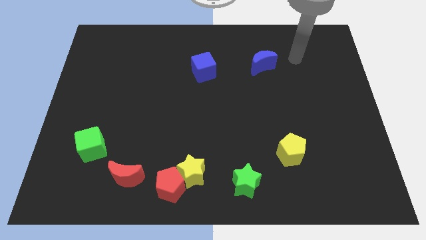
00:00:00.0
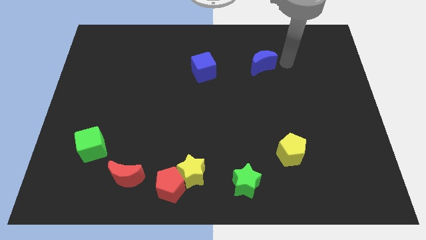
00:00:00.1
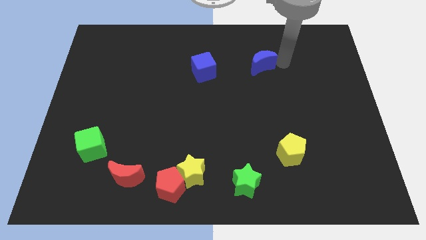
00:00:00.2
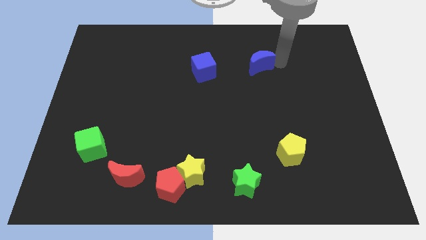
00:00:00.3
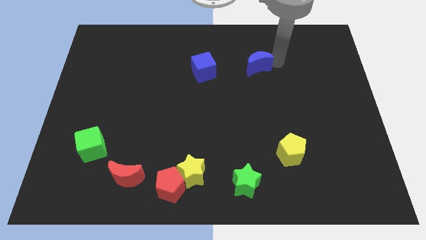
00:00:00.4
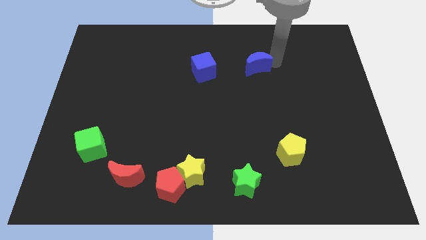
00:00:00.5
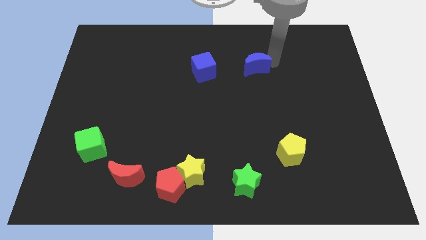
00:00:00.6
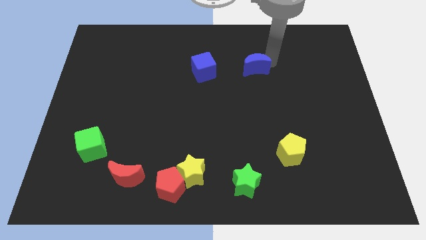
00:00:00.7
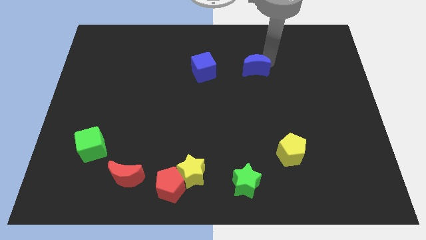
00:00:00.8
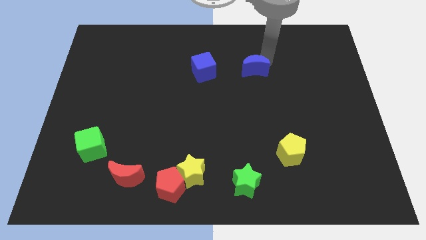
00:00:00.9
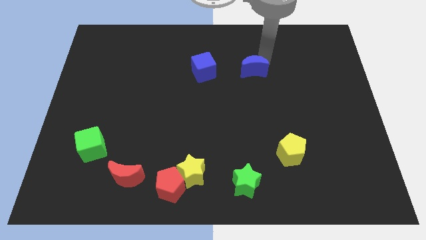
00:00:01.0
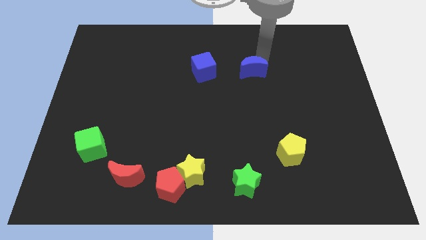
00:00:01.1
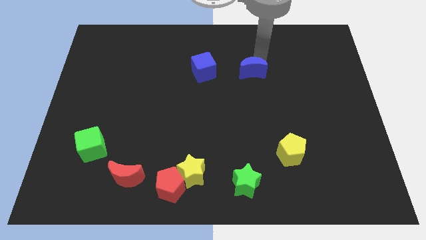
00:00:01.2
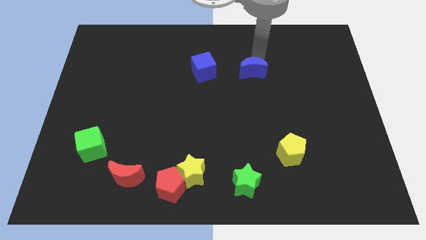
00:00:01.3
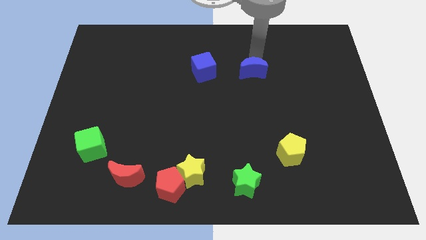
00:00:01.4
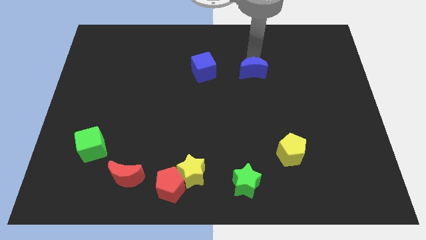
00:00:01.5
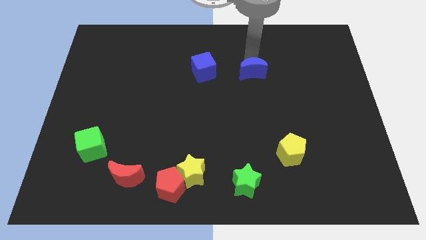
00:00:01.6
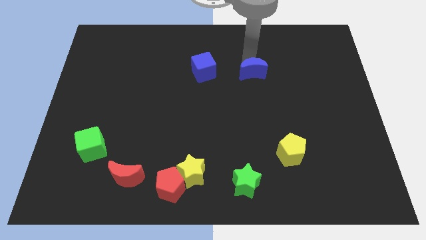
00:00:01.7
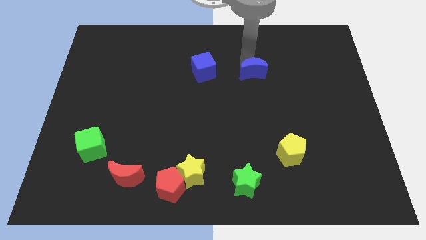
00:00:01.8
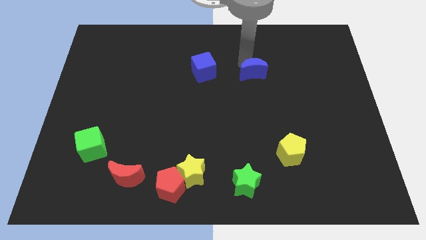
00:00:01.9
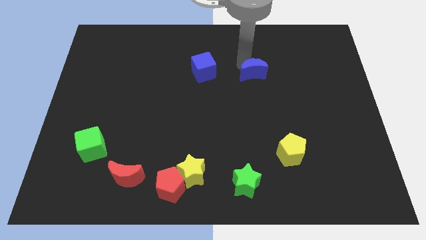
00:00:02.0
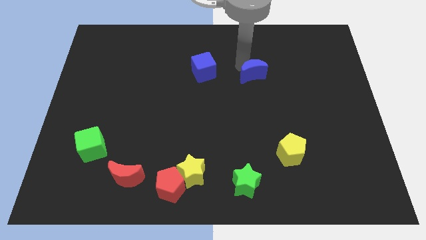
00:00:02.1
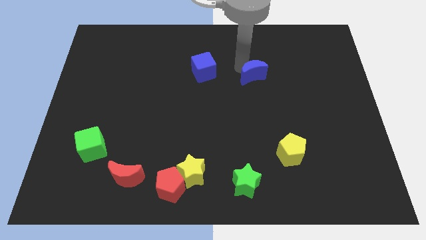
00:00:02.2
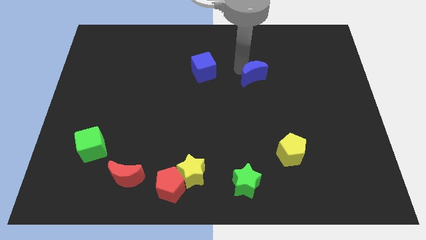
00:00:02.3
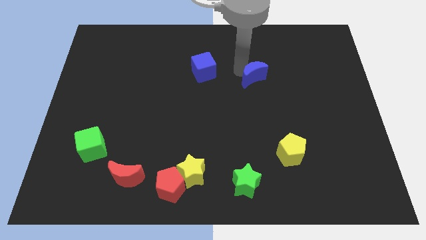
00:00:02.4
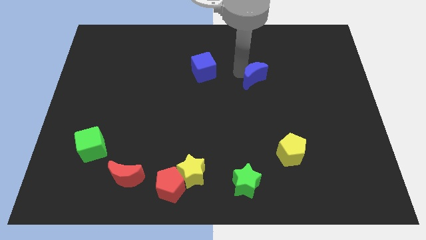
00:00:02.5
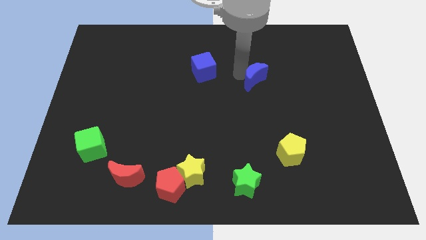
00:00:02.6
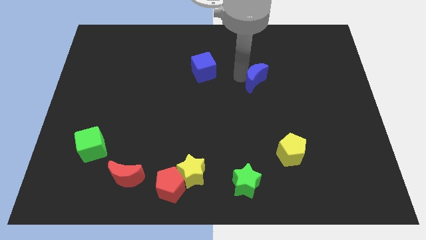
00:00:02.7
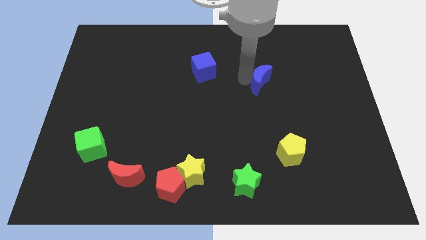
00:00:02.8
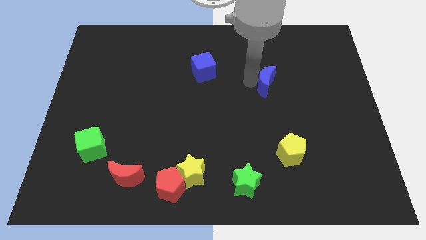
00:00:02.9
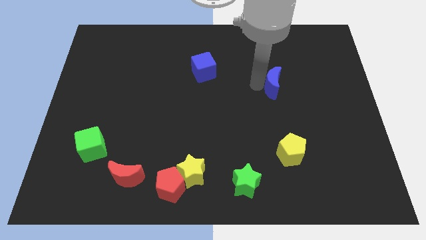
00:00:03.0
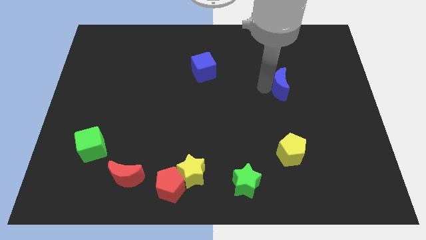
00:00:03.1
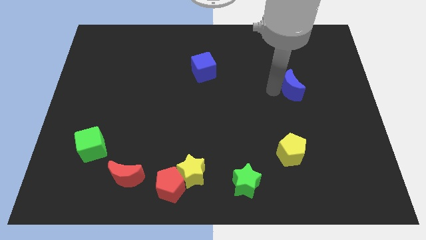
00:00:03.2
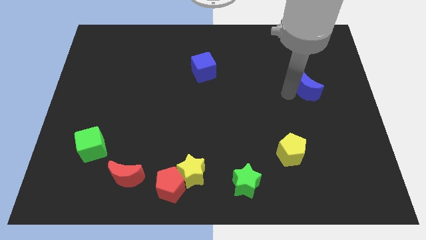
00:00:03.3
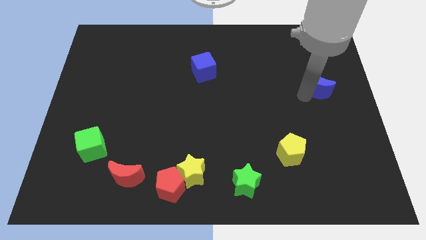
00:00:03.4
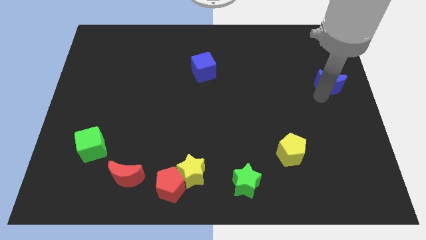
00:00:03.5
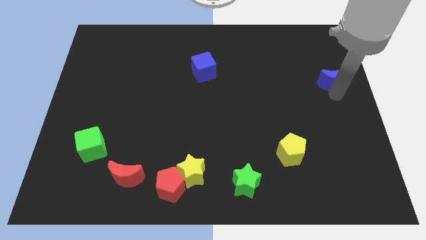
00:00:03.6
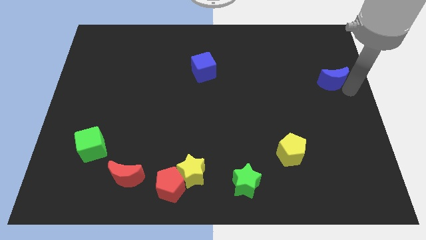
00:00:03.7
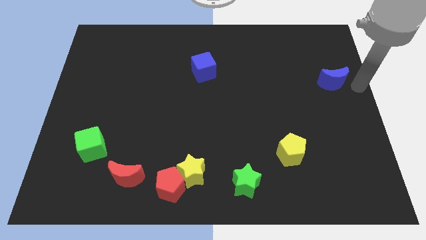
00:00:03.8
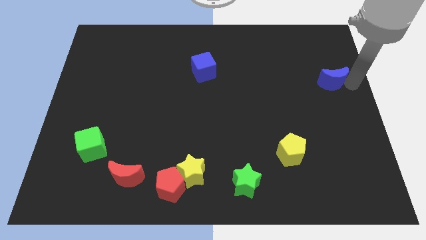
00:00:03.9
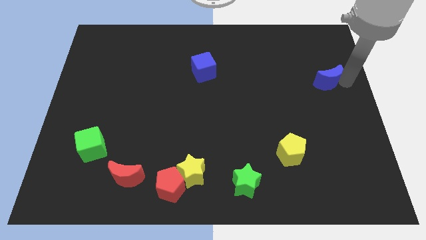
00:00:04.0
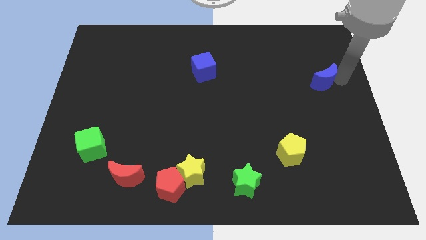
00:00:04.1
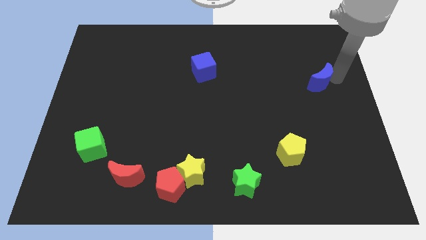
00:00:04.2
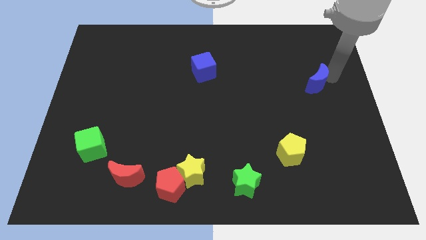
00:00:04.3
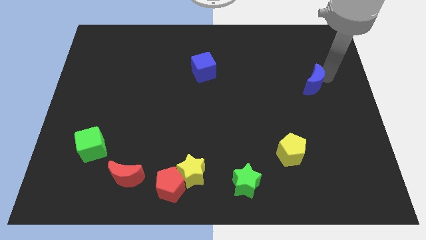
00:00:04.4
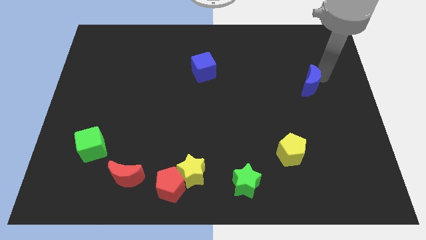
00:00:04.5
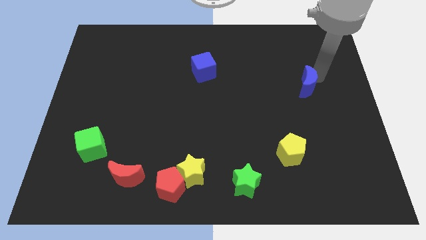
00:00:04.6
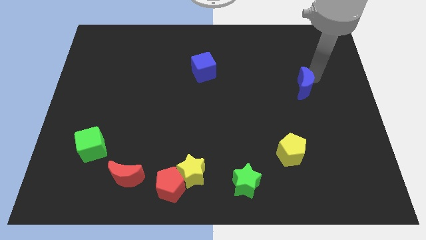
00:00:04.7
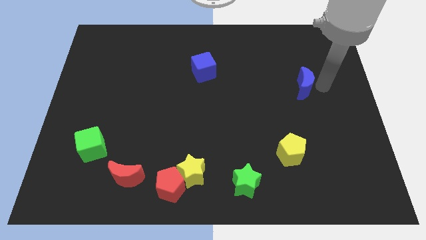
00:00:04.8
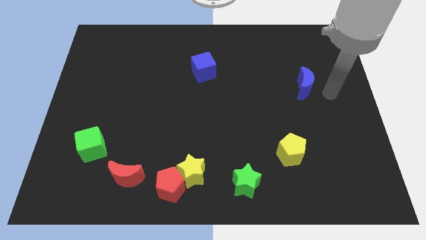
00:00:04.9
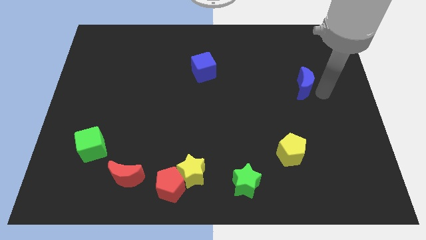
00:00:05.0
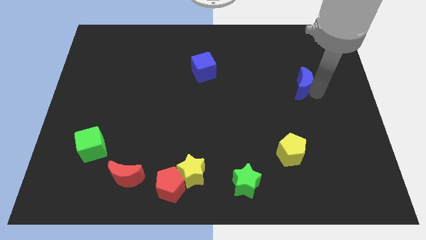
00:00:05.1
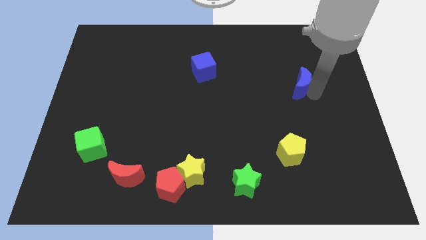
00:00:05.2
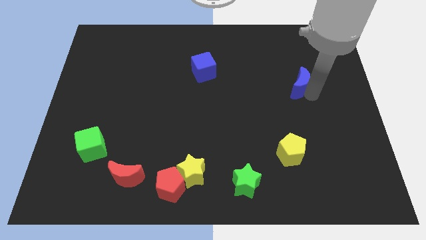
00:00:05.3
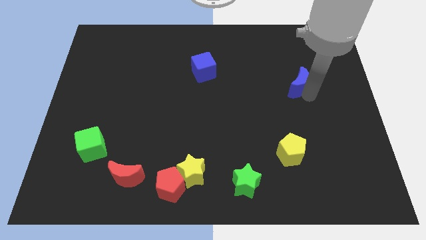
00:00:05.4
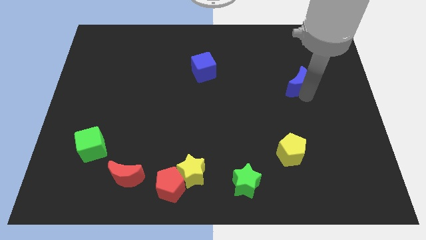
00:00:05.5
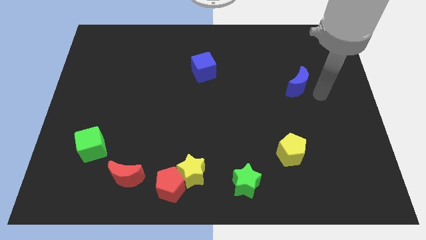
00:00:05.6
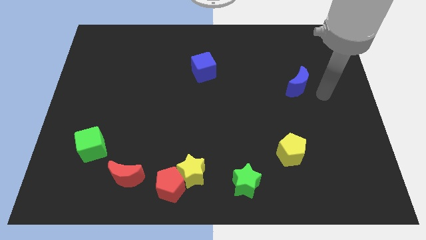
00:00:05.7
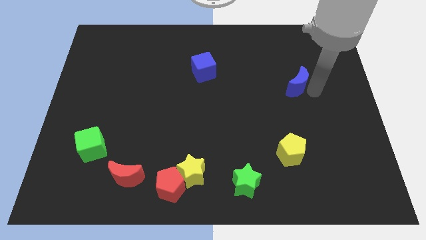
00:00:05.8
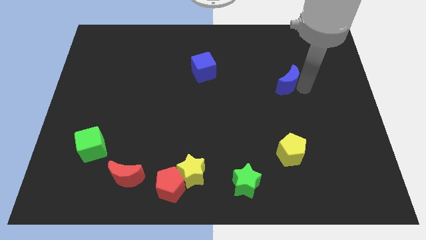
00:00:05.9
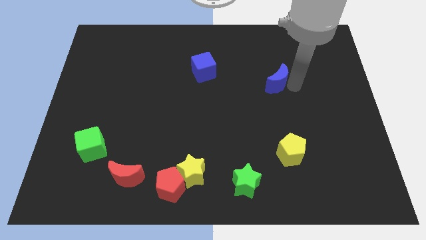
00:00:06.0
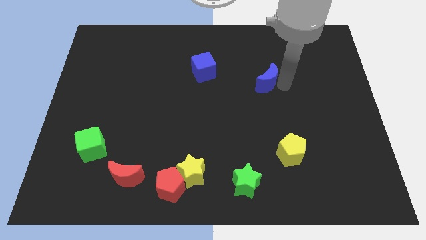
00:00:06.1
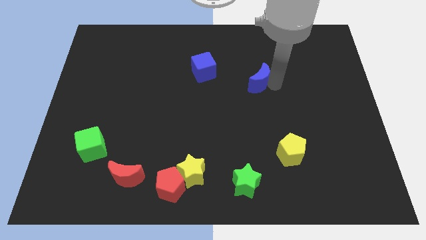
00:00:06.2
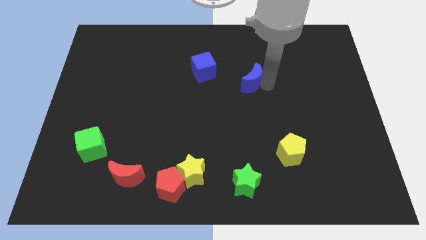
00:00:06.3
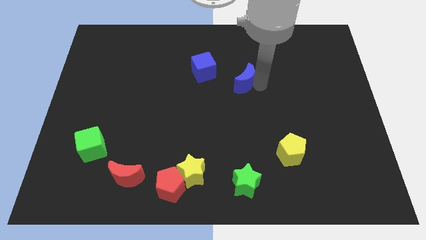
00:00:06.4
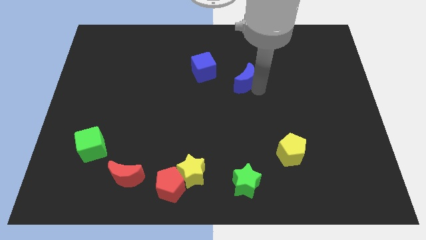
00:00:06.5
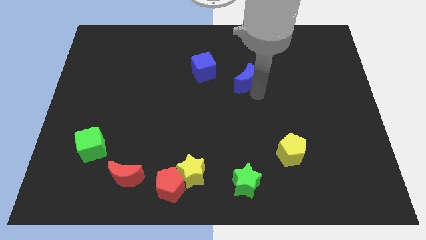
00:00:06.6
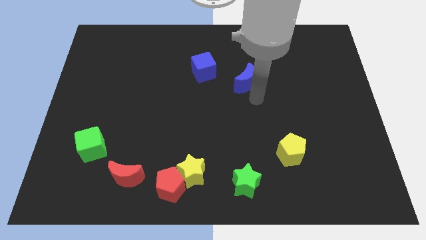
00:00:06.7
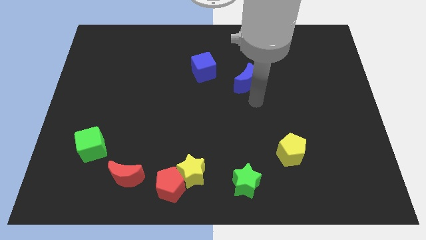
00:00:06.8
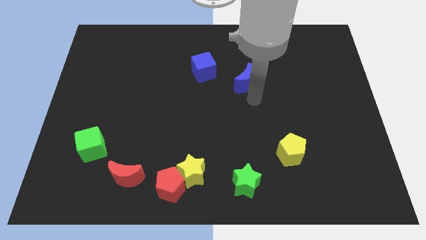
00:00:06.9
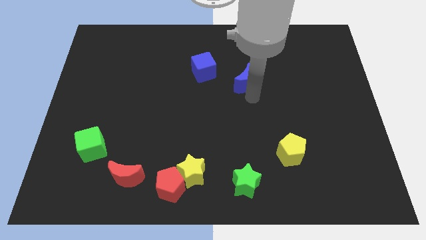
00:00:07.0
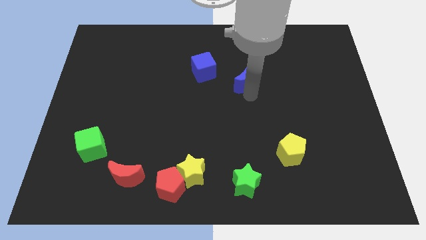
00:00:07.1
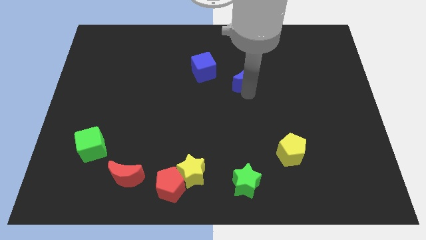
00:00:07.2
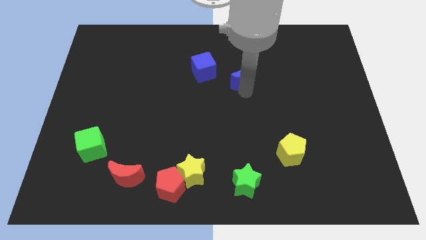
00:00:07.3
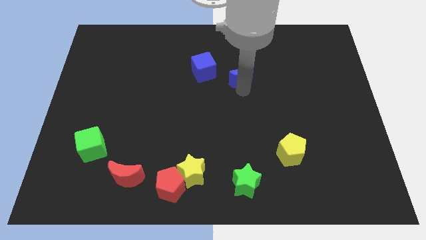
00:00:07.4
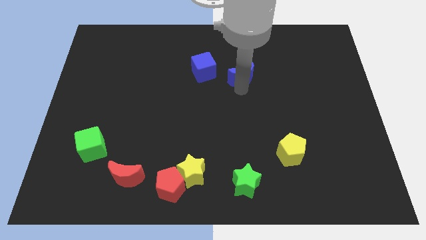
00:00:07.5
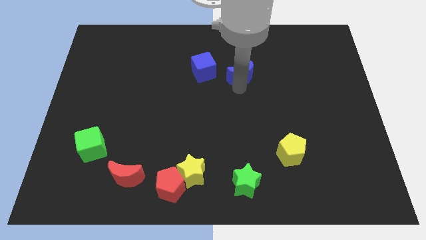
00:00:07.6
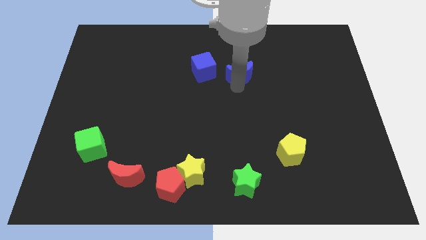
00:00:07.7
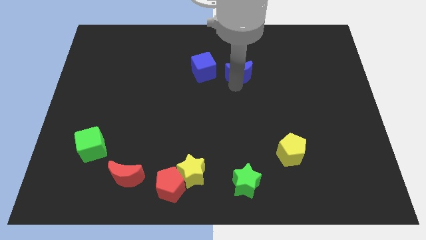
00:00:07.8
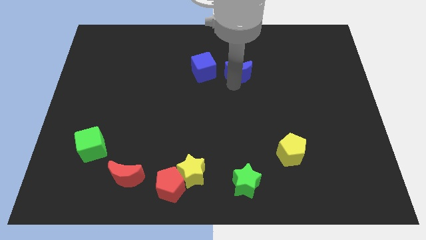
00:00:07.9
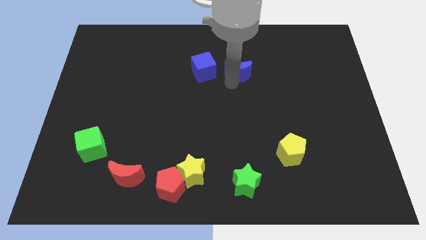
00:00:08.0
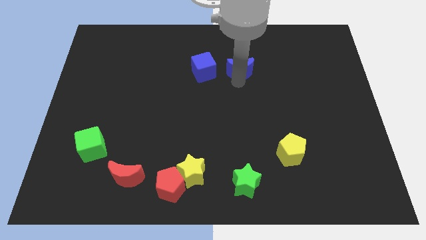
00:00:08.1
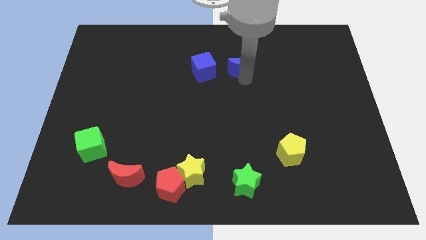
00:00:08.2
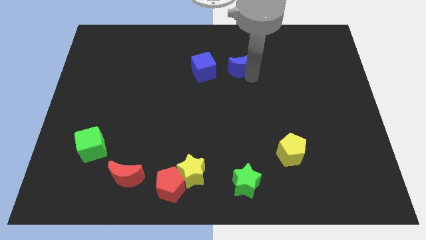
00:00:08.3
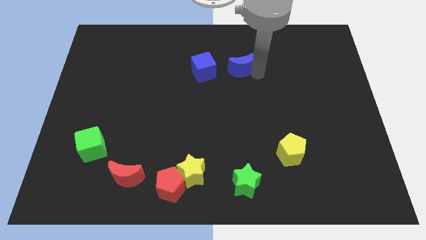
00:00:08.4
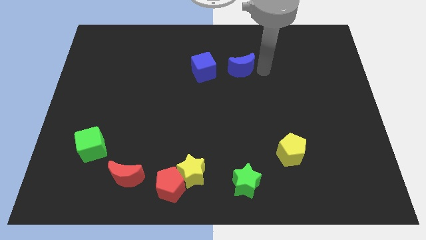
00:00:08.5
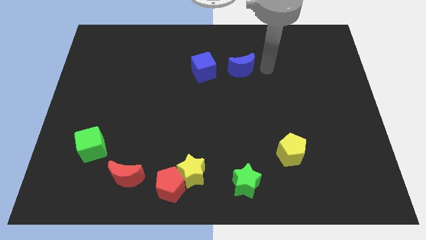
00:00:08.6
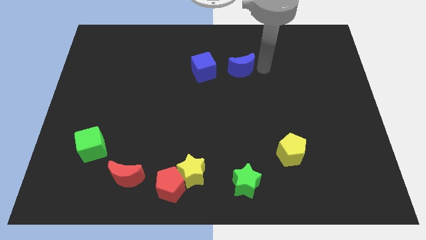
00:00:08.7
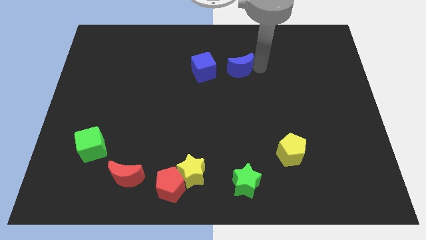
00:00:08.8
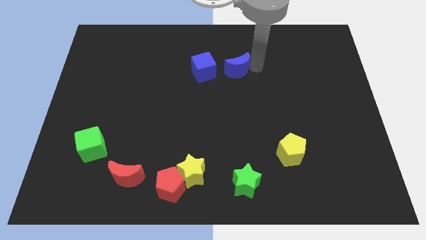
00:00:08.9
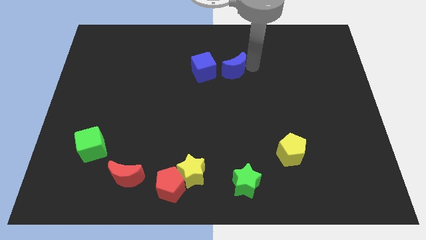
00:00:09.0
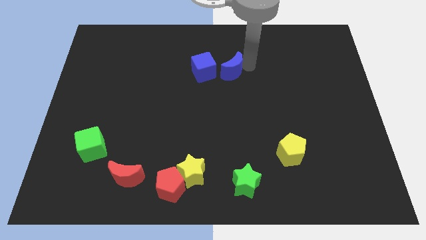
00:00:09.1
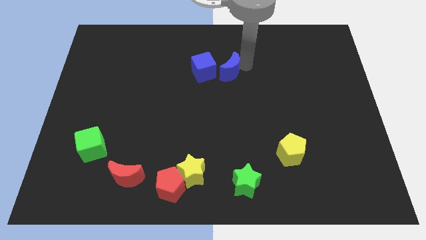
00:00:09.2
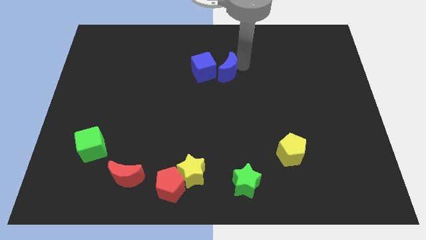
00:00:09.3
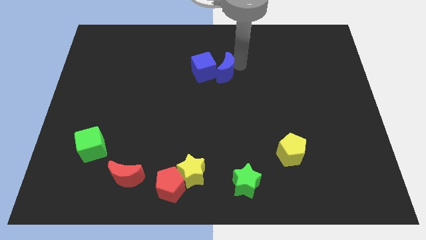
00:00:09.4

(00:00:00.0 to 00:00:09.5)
push the blue moon towards the blue cube
